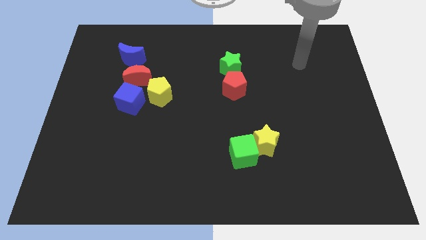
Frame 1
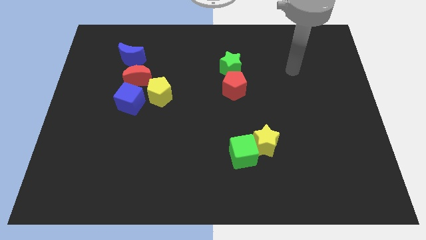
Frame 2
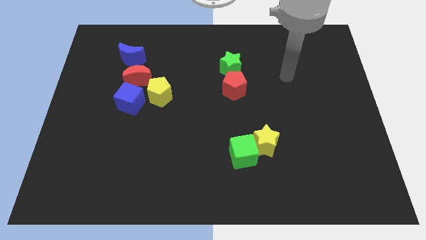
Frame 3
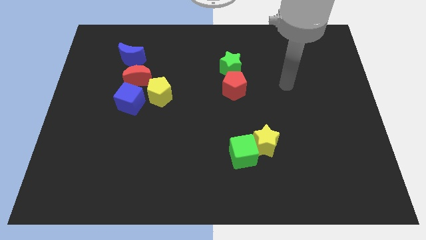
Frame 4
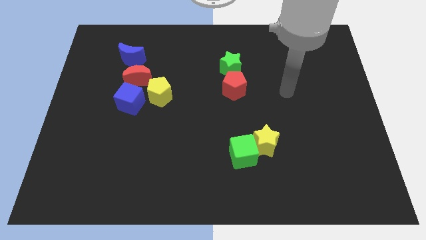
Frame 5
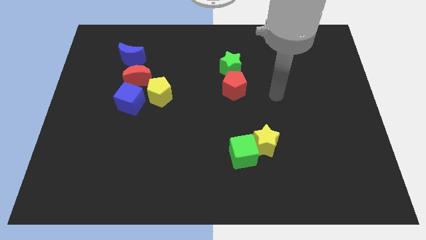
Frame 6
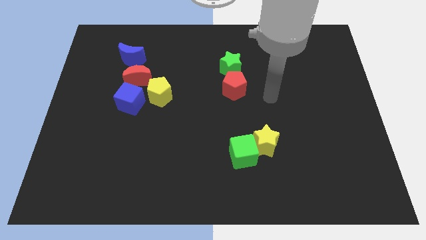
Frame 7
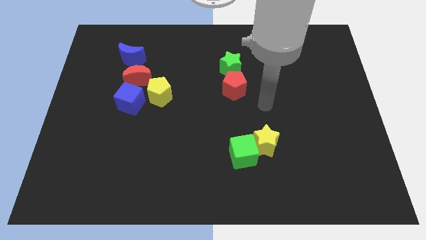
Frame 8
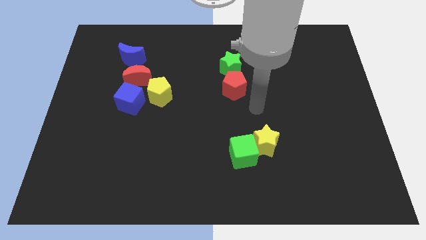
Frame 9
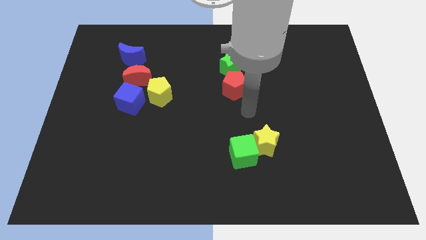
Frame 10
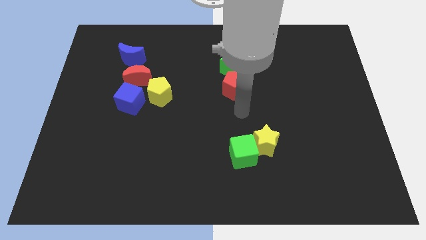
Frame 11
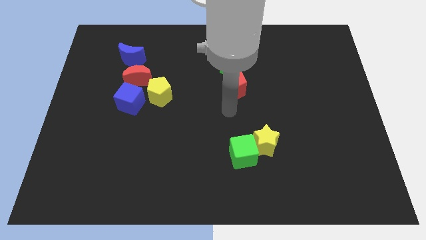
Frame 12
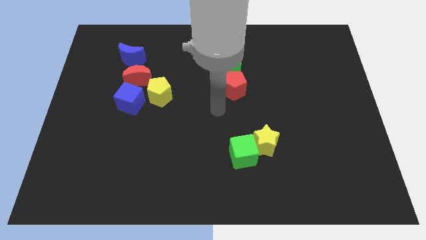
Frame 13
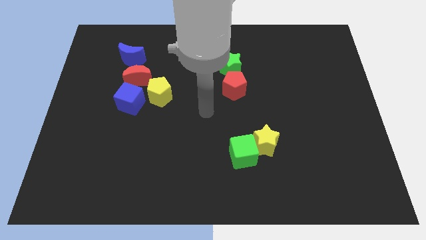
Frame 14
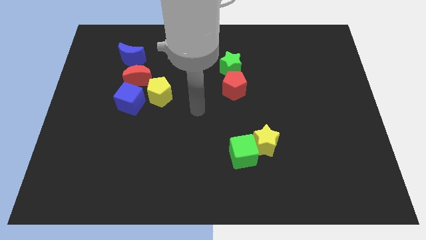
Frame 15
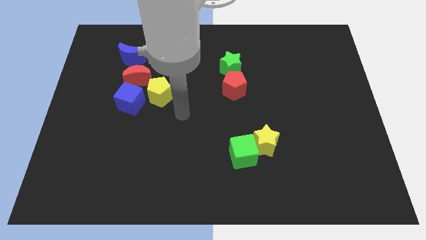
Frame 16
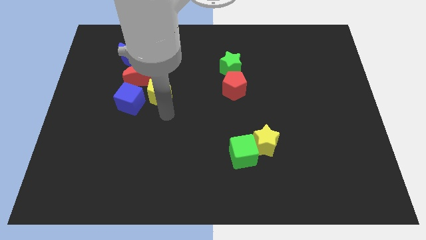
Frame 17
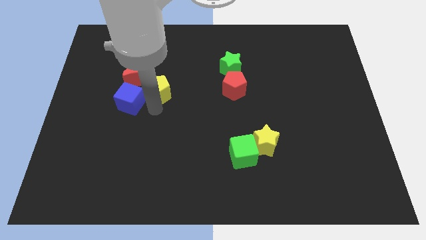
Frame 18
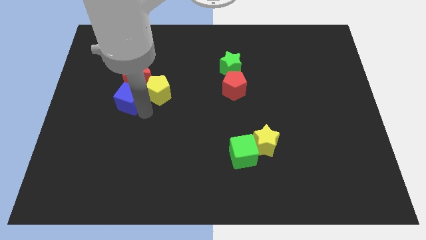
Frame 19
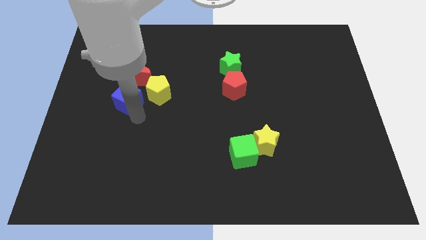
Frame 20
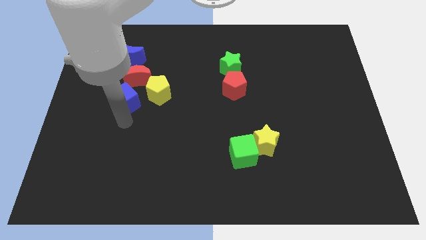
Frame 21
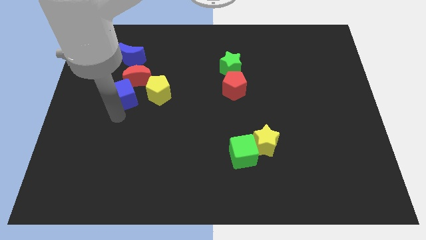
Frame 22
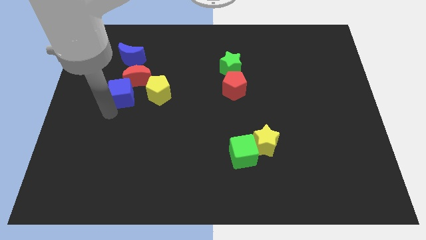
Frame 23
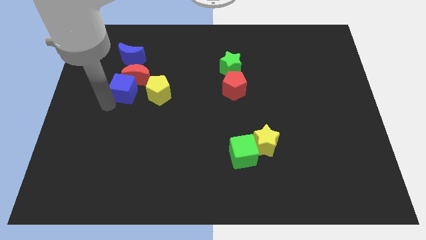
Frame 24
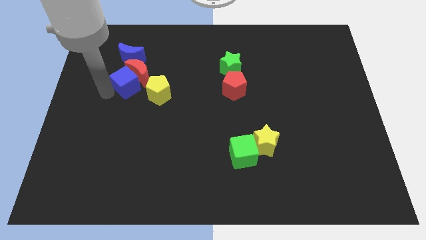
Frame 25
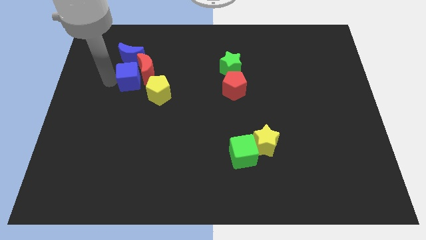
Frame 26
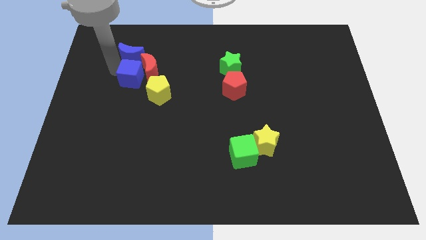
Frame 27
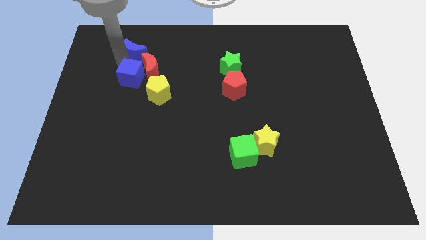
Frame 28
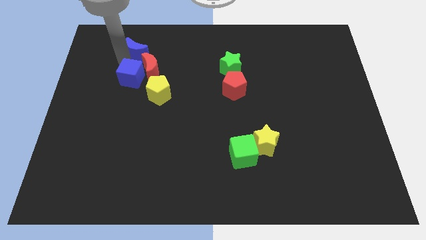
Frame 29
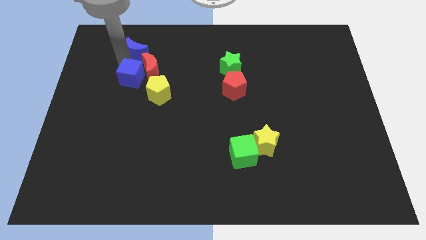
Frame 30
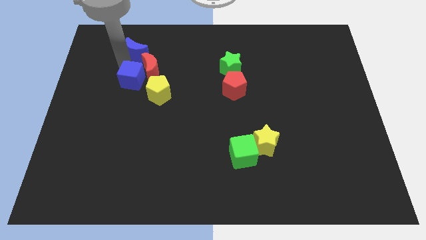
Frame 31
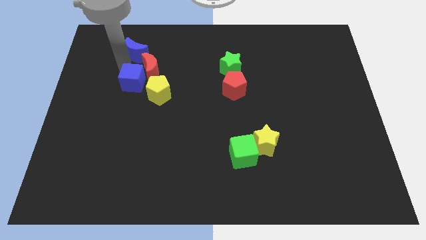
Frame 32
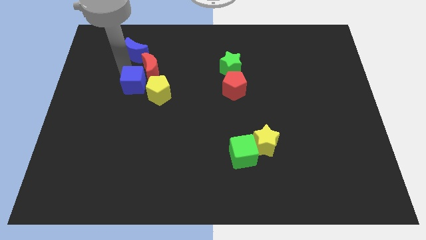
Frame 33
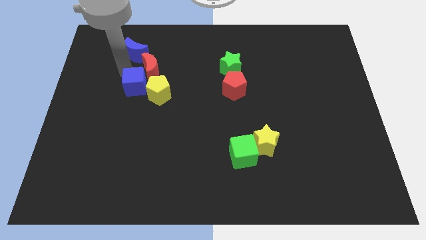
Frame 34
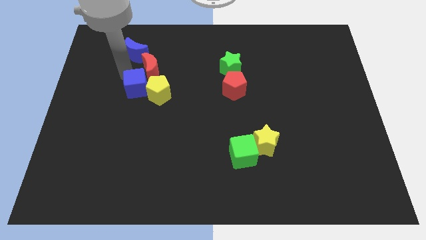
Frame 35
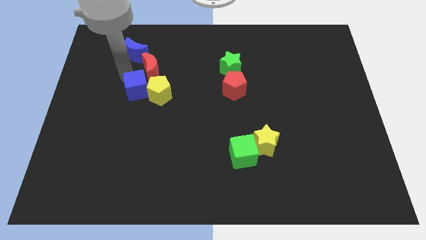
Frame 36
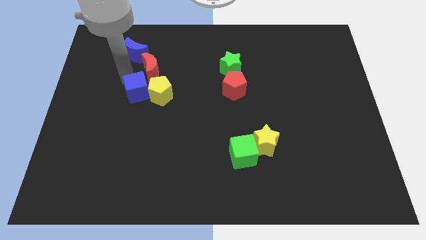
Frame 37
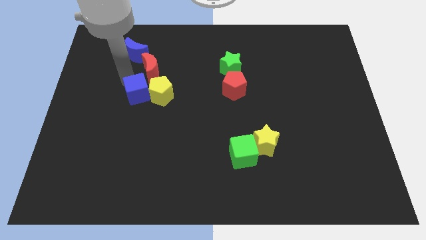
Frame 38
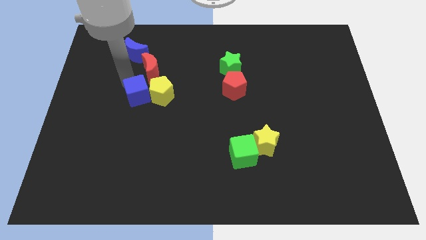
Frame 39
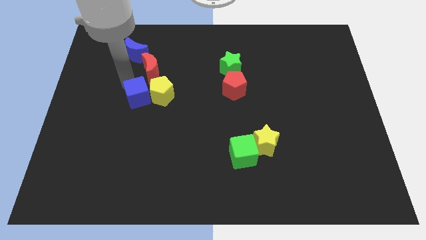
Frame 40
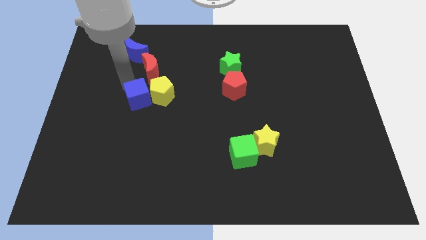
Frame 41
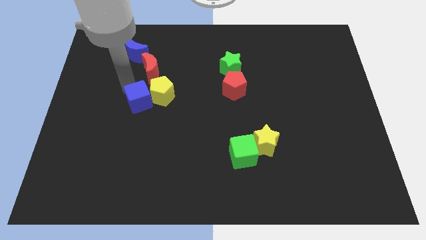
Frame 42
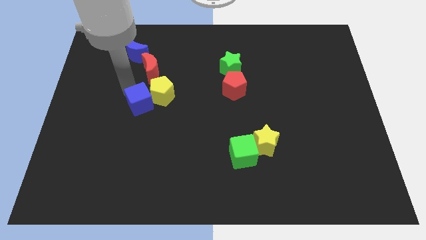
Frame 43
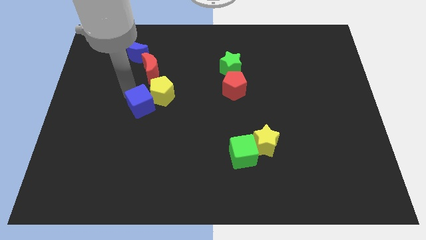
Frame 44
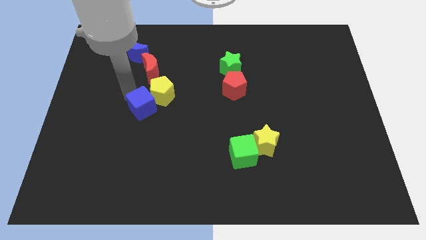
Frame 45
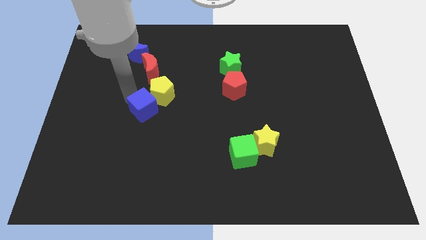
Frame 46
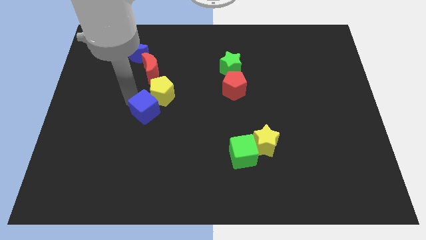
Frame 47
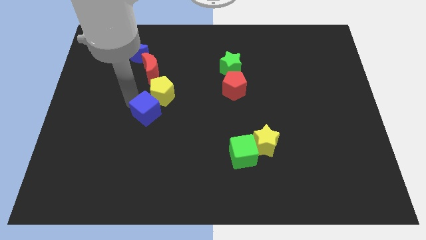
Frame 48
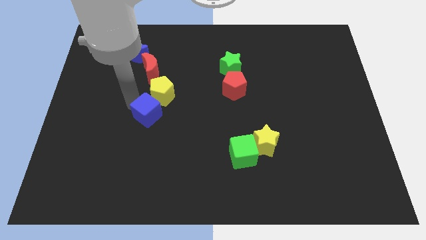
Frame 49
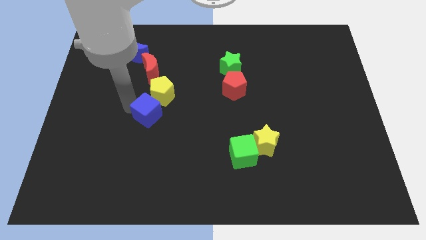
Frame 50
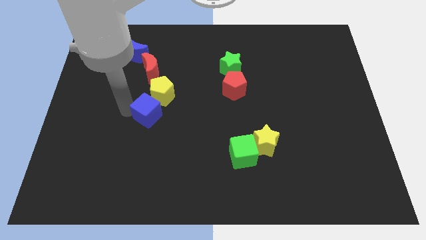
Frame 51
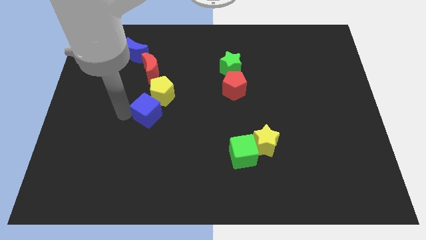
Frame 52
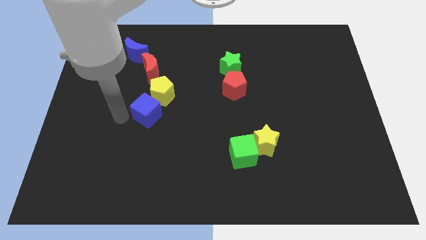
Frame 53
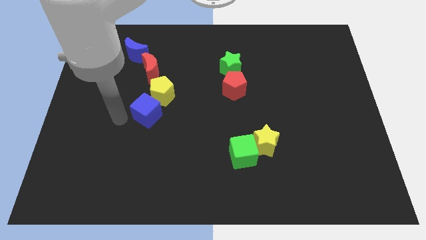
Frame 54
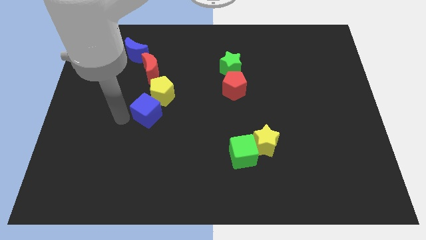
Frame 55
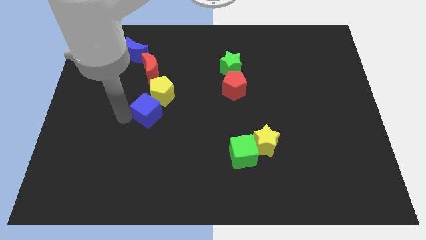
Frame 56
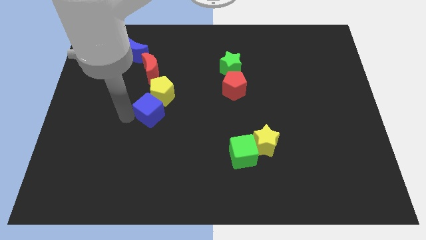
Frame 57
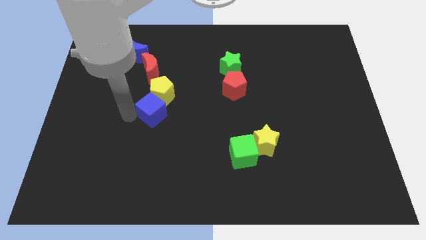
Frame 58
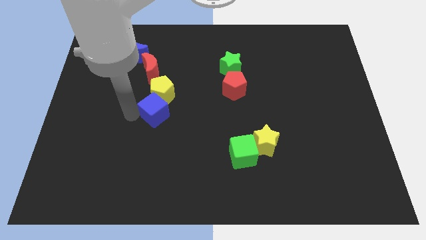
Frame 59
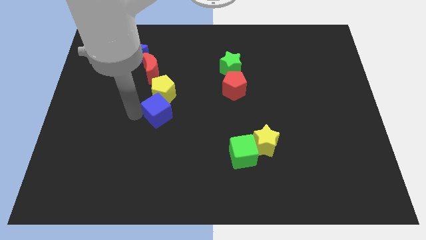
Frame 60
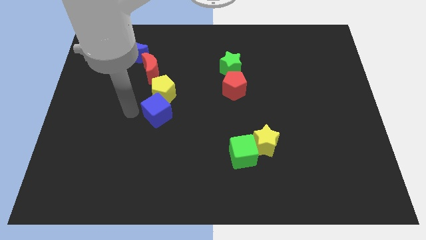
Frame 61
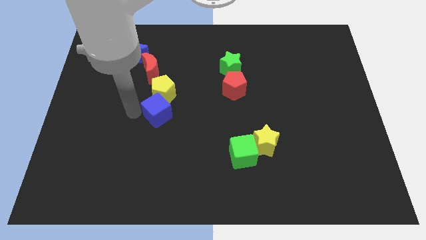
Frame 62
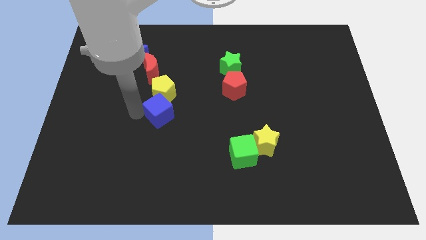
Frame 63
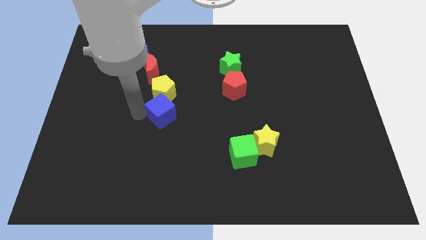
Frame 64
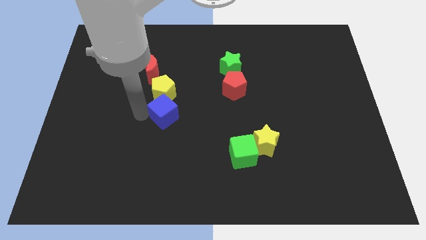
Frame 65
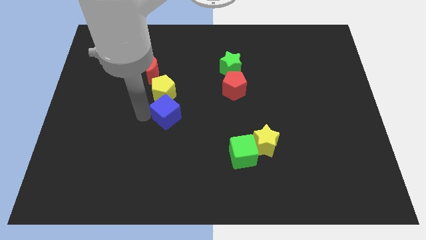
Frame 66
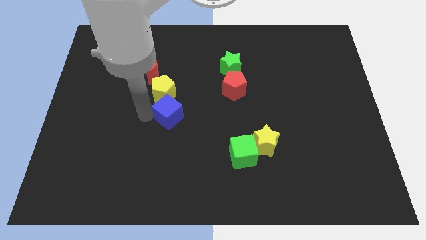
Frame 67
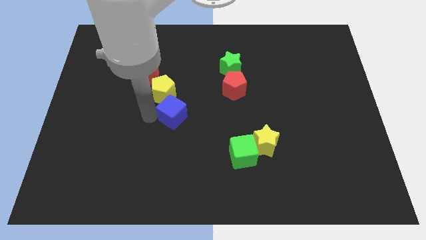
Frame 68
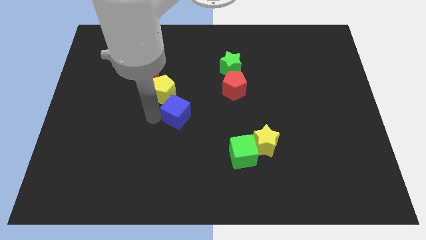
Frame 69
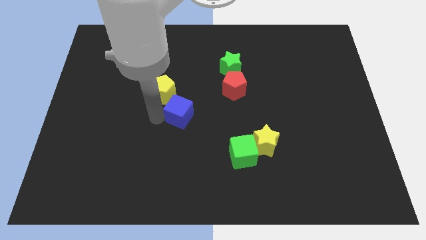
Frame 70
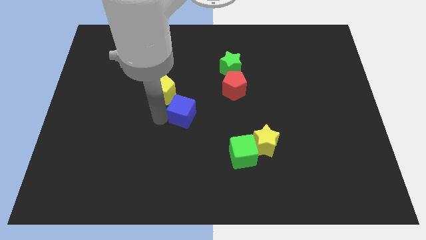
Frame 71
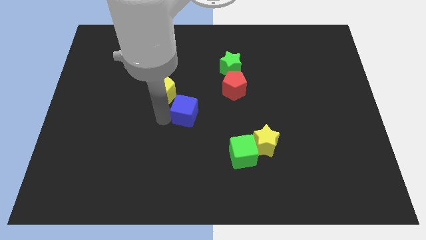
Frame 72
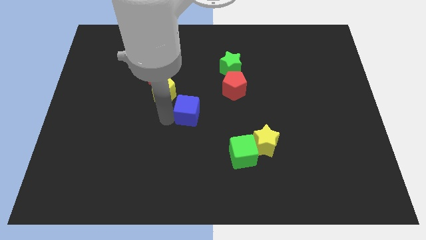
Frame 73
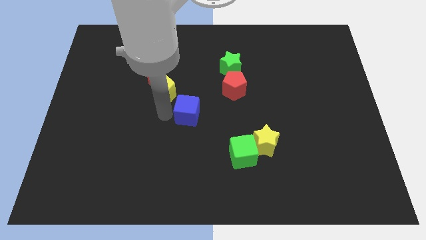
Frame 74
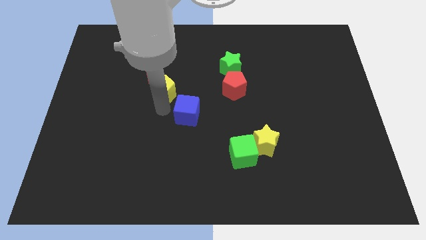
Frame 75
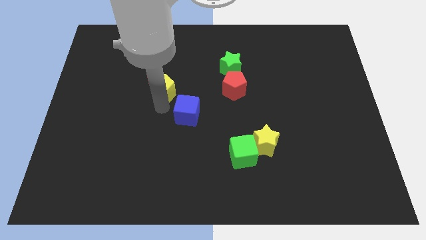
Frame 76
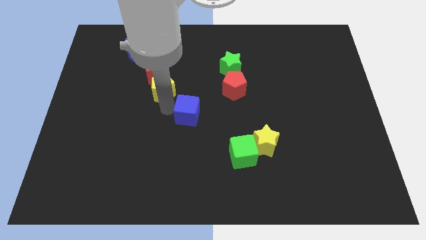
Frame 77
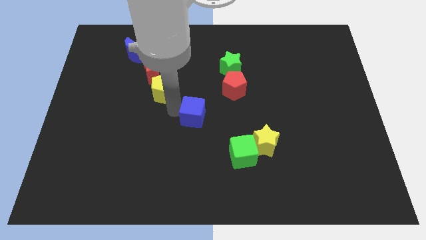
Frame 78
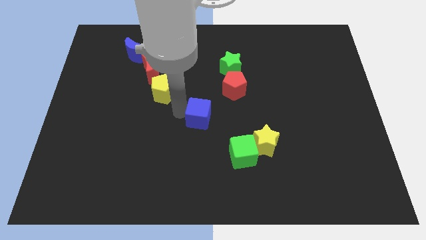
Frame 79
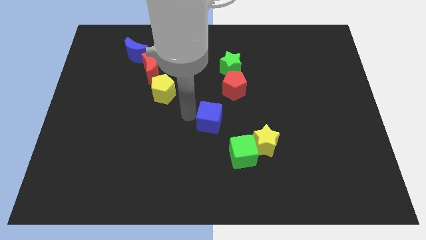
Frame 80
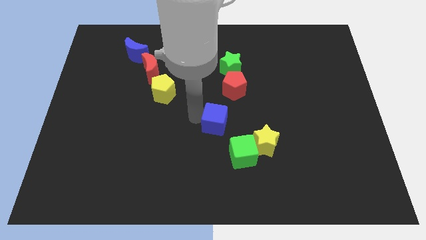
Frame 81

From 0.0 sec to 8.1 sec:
put the blue cube below the red pentagon
